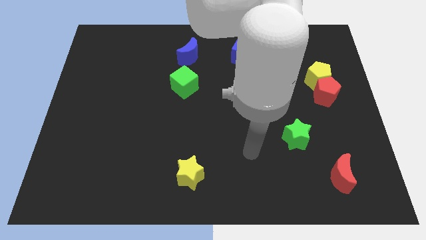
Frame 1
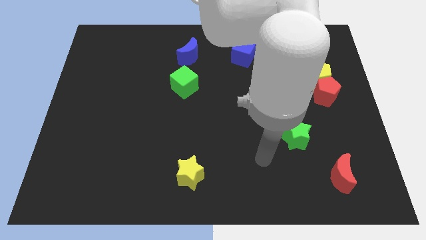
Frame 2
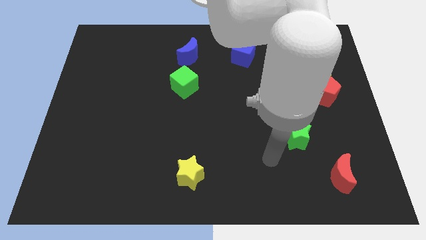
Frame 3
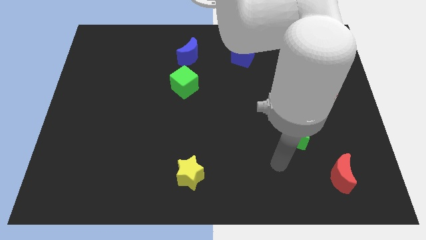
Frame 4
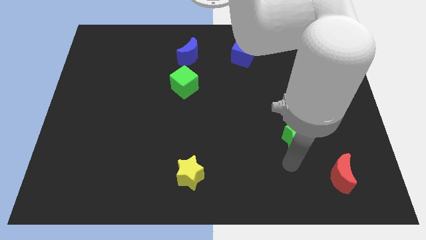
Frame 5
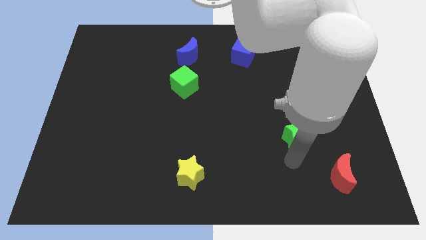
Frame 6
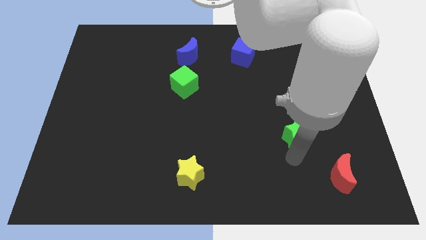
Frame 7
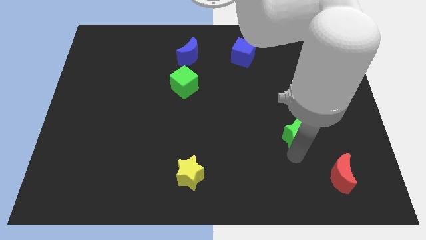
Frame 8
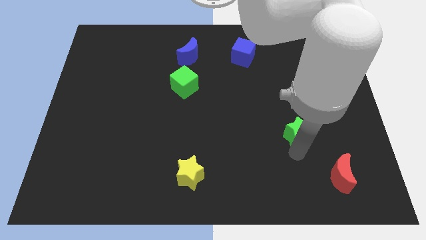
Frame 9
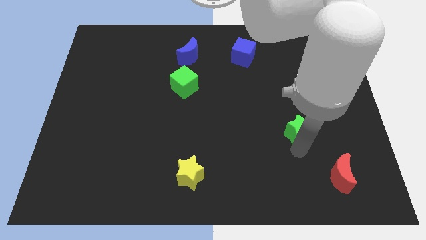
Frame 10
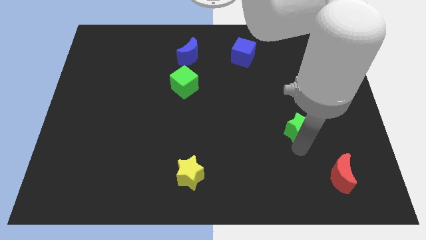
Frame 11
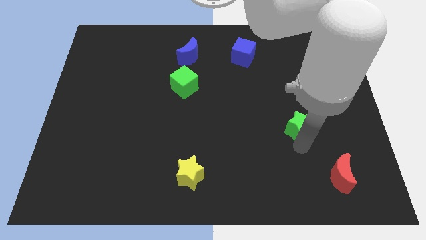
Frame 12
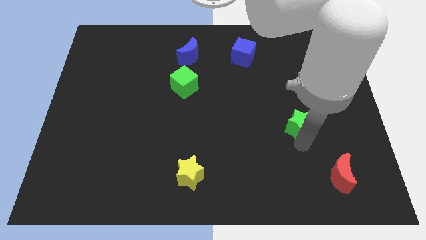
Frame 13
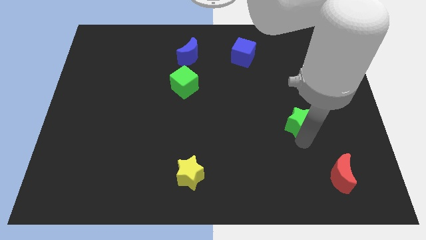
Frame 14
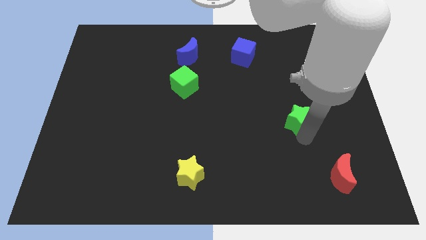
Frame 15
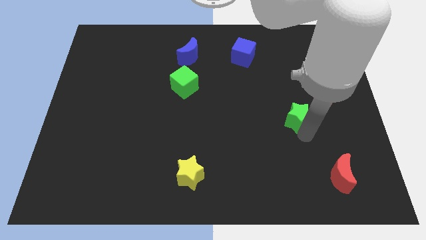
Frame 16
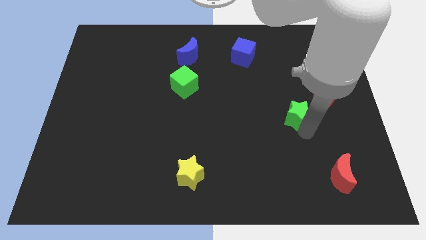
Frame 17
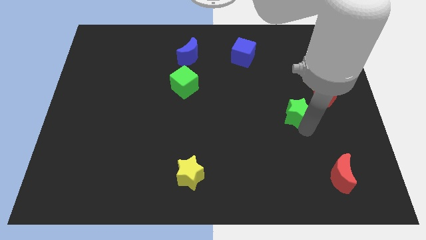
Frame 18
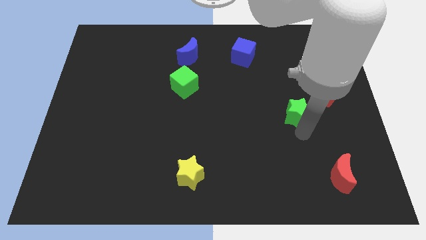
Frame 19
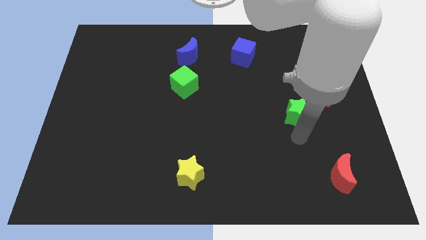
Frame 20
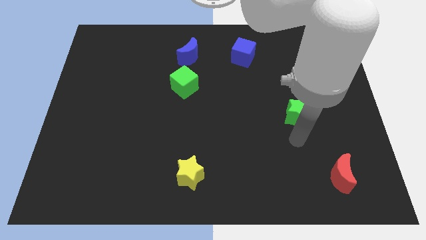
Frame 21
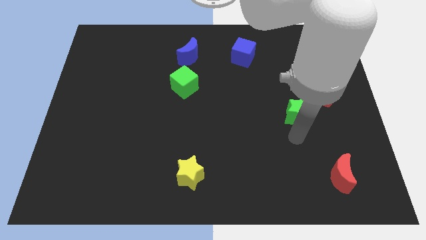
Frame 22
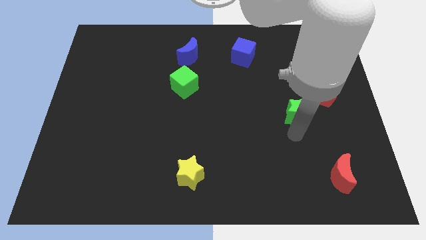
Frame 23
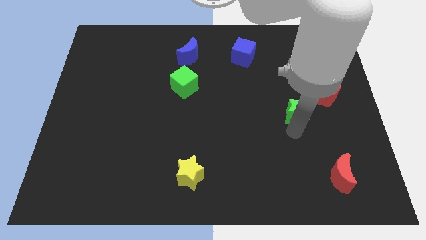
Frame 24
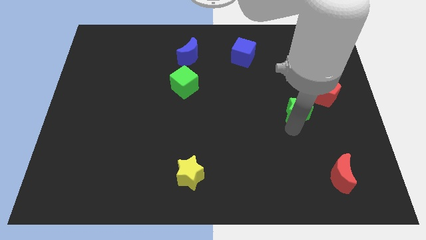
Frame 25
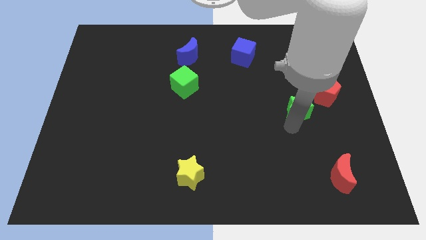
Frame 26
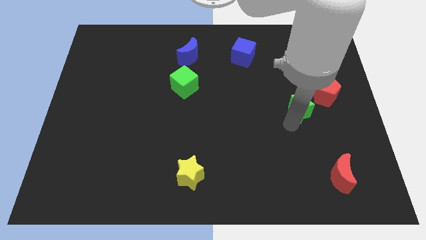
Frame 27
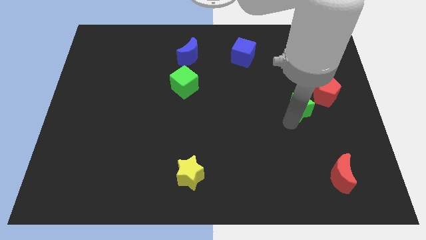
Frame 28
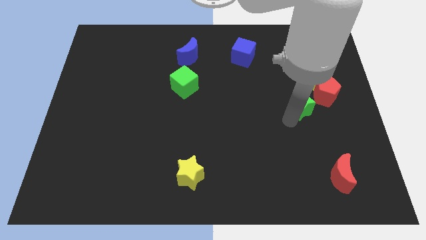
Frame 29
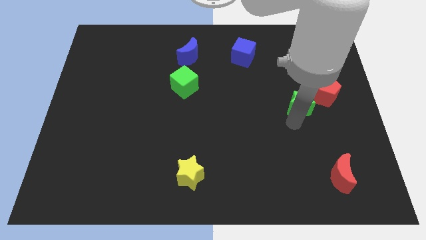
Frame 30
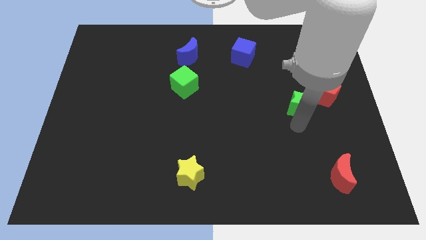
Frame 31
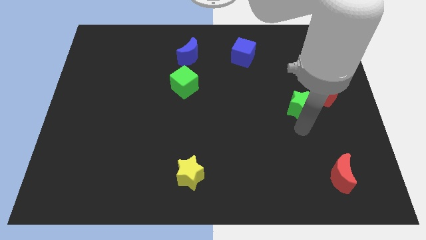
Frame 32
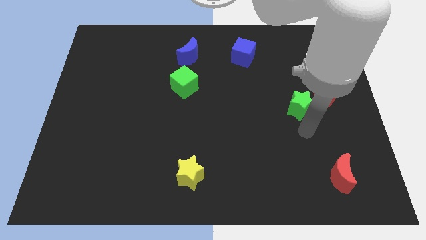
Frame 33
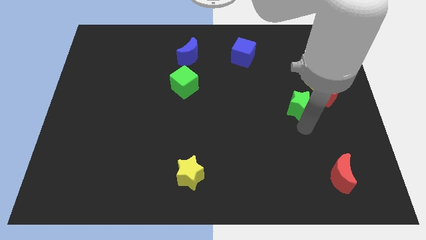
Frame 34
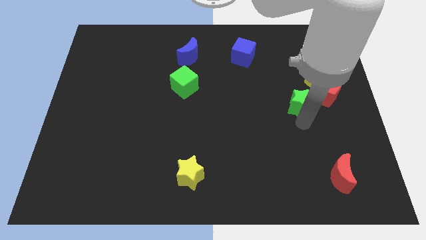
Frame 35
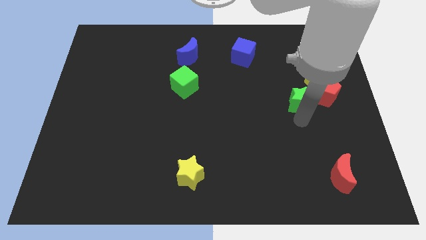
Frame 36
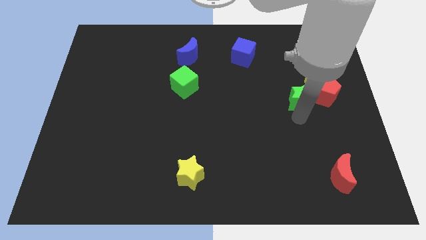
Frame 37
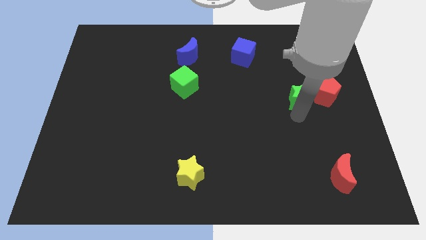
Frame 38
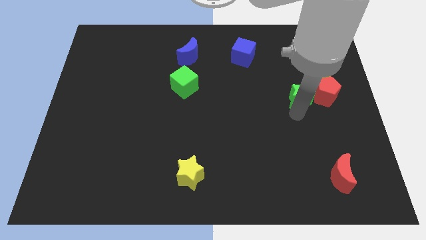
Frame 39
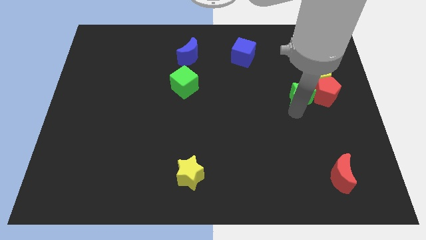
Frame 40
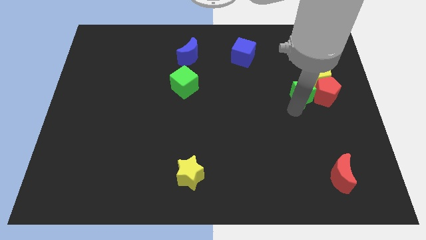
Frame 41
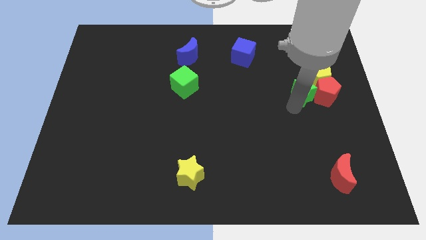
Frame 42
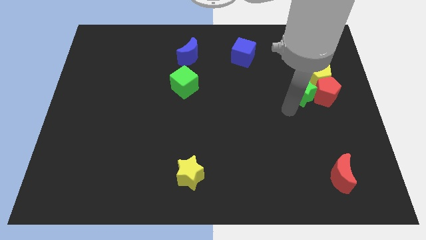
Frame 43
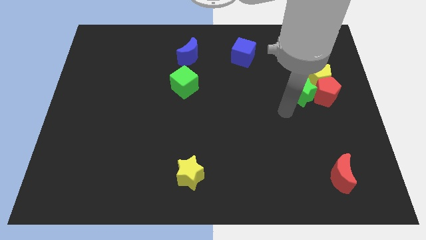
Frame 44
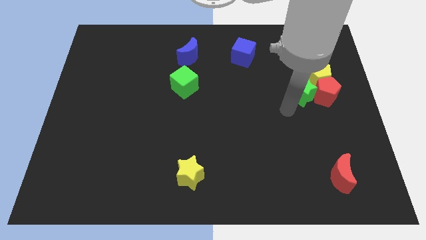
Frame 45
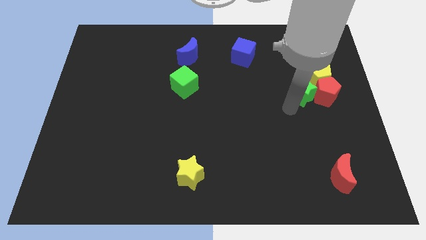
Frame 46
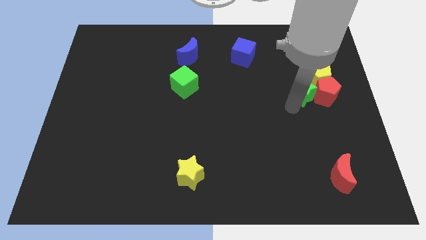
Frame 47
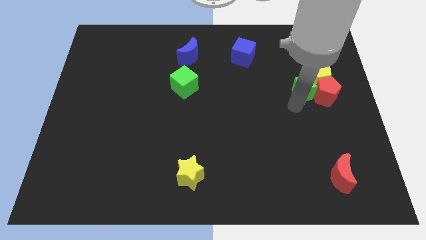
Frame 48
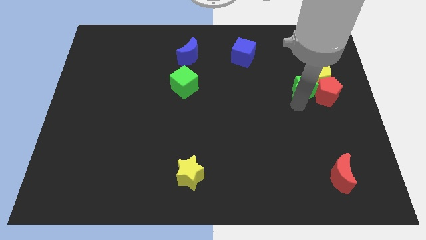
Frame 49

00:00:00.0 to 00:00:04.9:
slide the green star next to the yellow pentagon

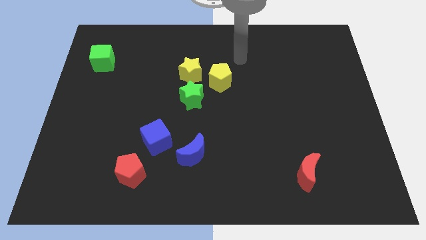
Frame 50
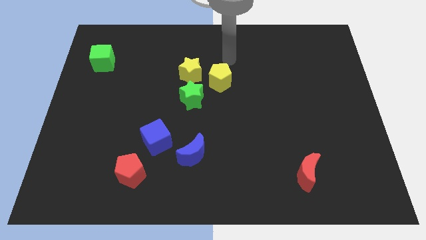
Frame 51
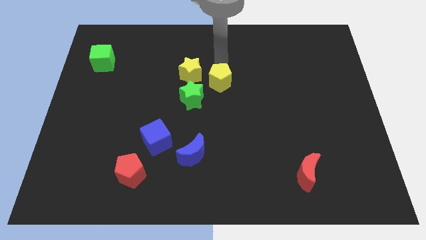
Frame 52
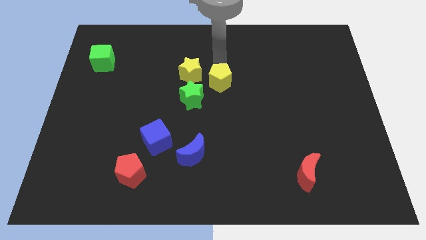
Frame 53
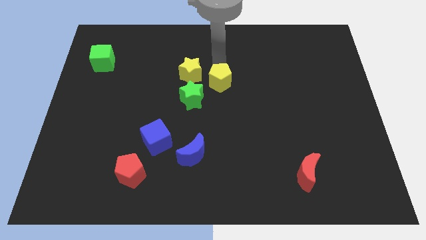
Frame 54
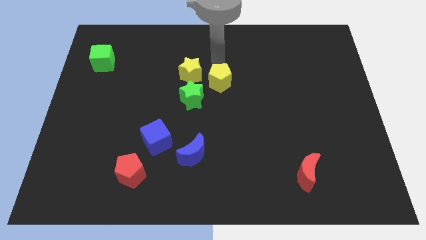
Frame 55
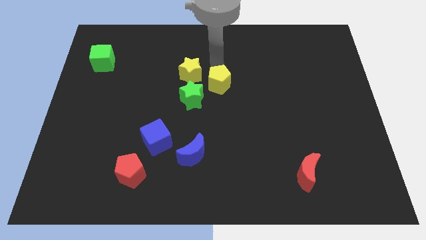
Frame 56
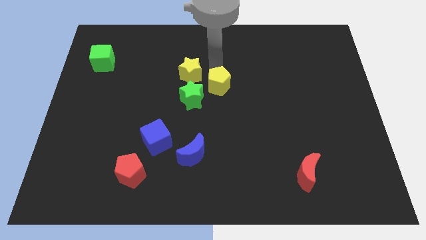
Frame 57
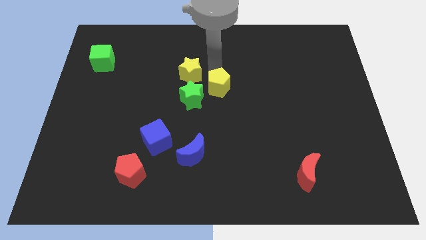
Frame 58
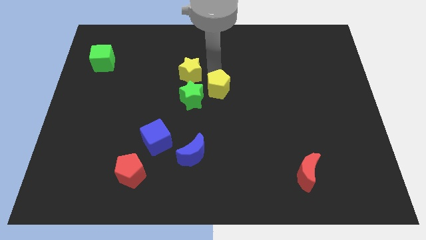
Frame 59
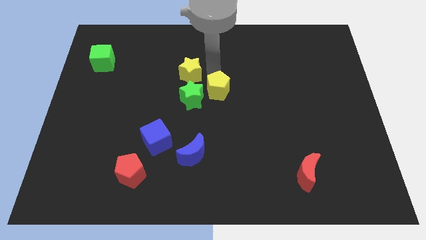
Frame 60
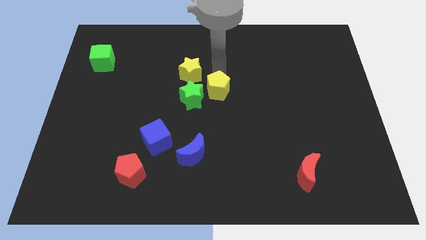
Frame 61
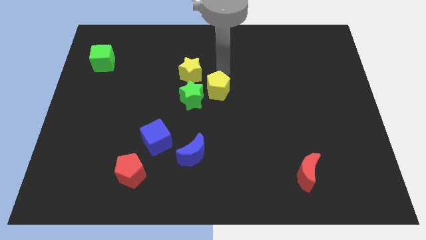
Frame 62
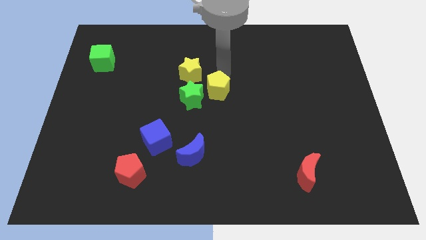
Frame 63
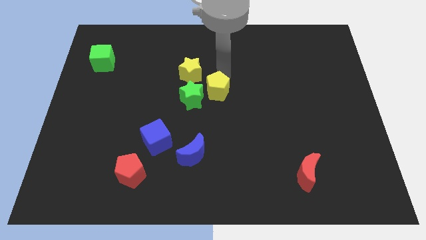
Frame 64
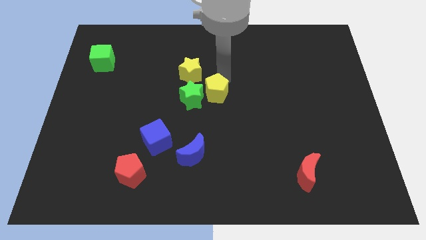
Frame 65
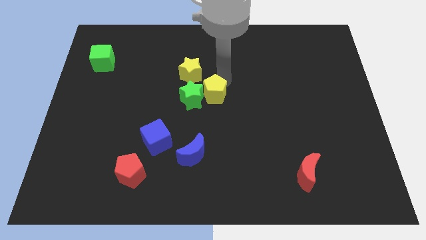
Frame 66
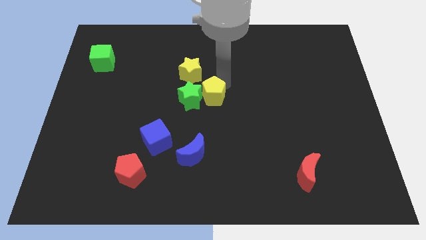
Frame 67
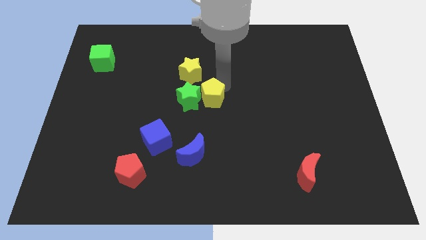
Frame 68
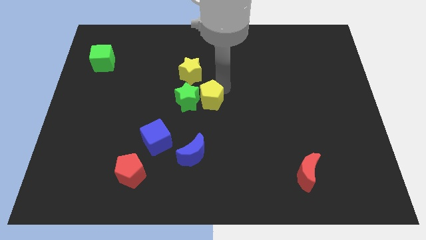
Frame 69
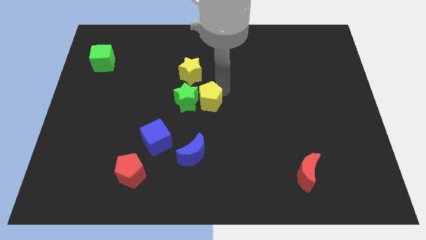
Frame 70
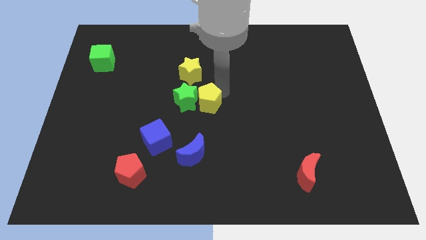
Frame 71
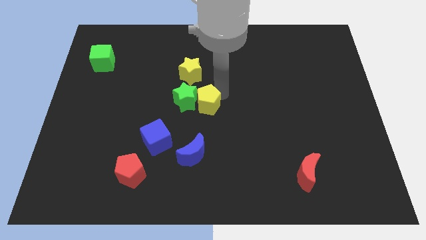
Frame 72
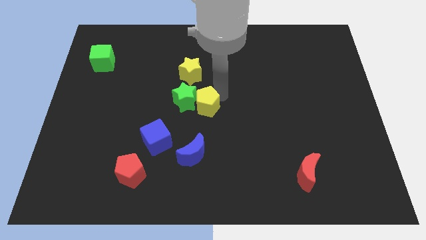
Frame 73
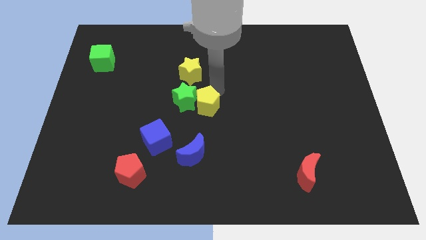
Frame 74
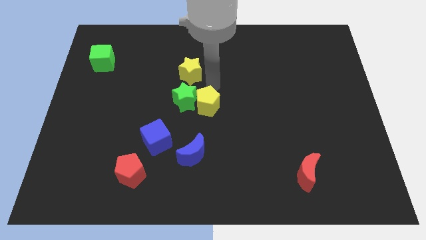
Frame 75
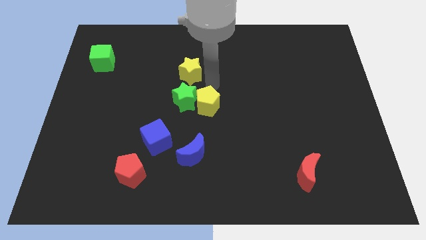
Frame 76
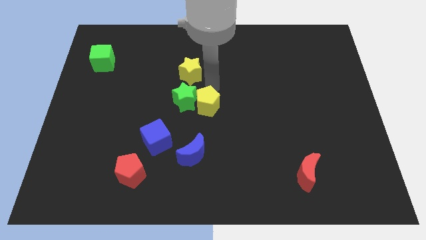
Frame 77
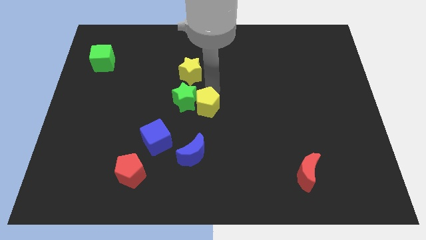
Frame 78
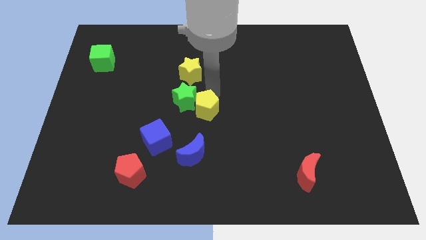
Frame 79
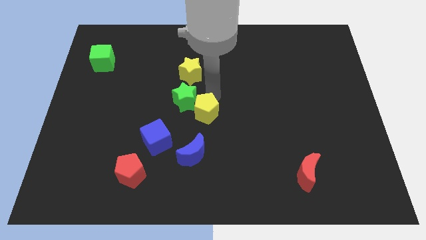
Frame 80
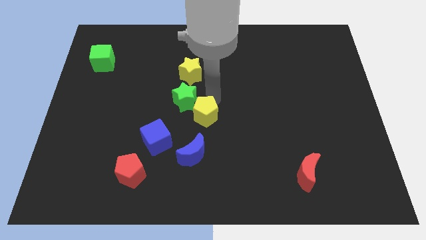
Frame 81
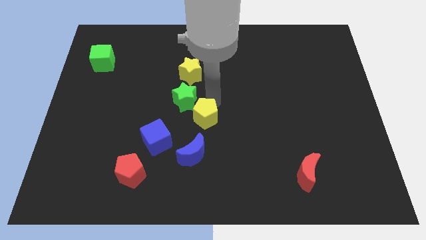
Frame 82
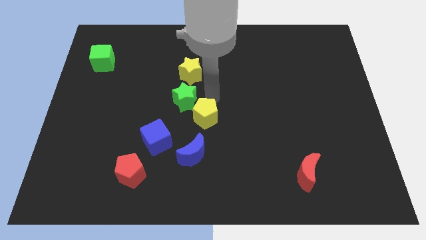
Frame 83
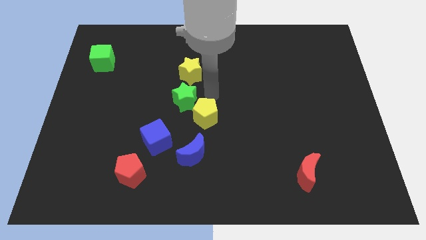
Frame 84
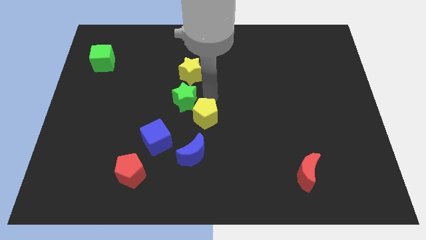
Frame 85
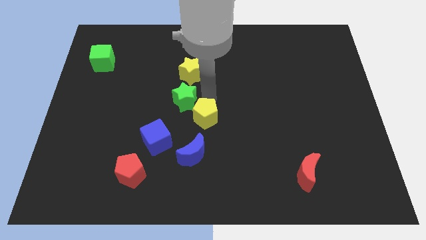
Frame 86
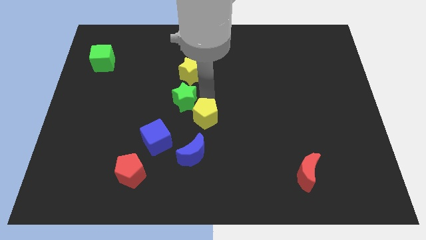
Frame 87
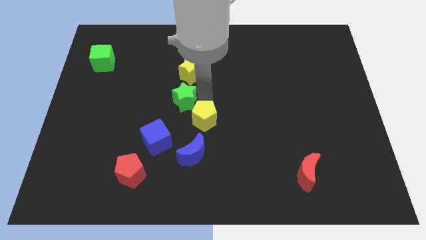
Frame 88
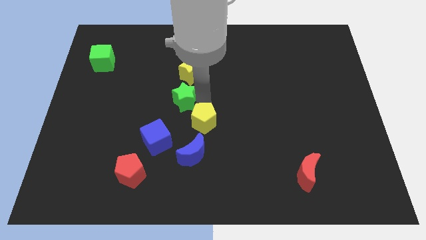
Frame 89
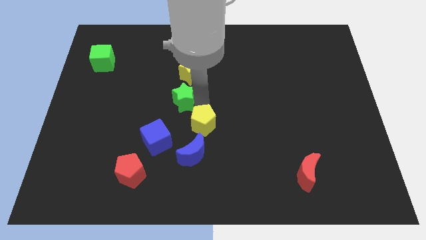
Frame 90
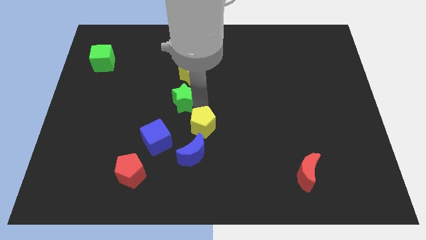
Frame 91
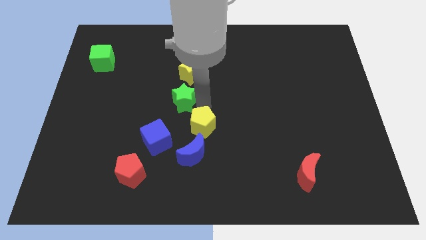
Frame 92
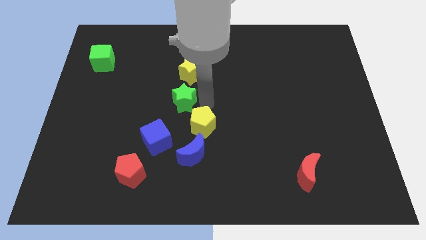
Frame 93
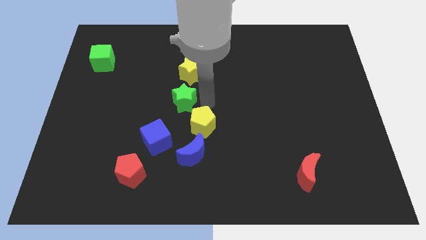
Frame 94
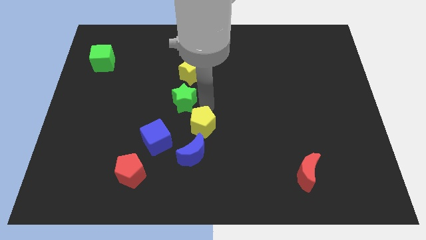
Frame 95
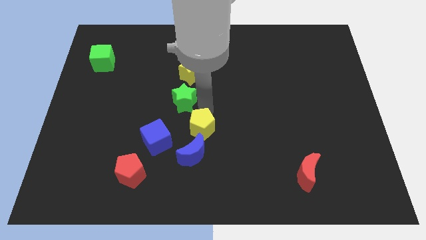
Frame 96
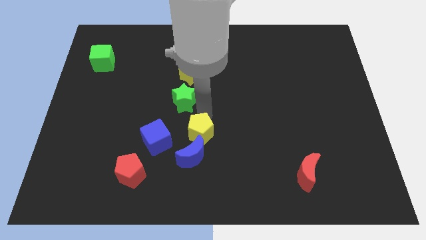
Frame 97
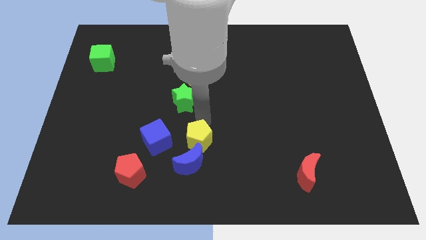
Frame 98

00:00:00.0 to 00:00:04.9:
move the yellow pentagon to the blue moon
